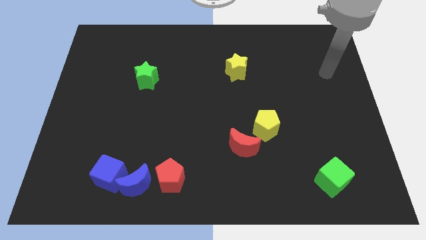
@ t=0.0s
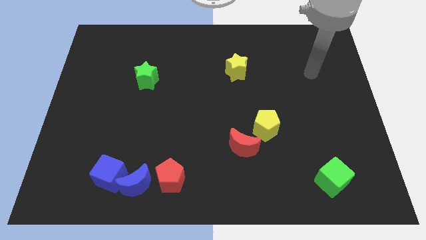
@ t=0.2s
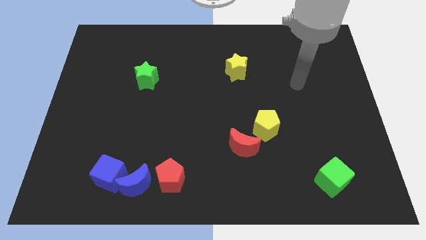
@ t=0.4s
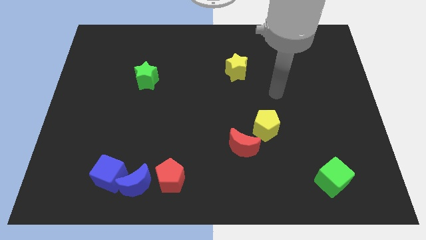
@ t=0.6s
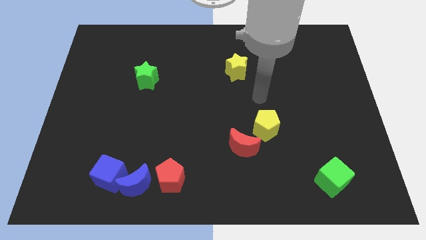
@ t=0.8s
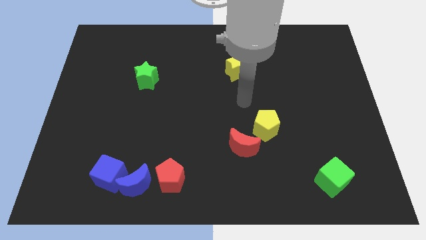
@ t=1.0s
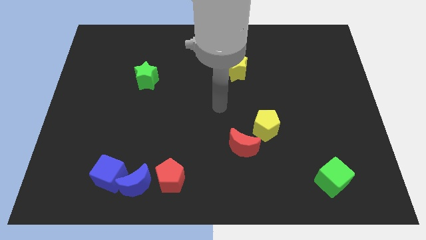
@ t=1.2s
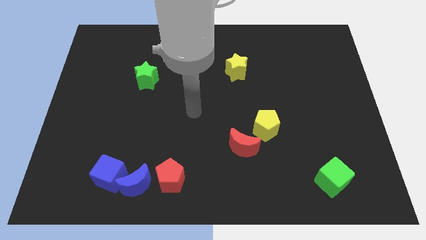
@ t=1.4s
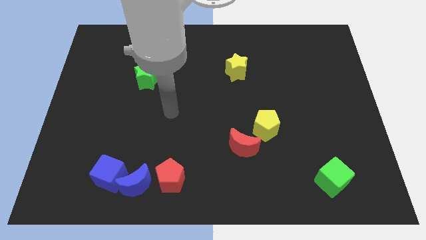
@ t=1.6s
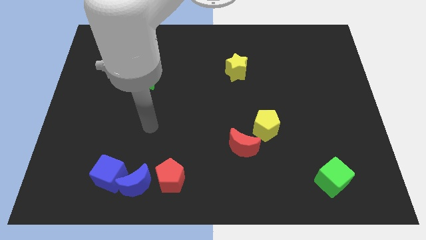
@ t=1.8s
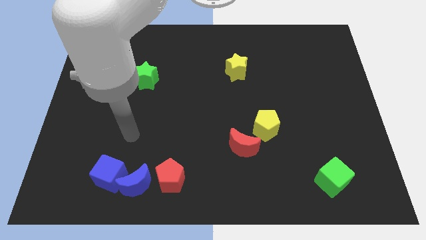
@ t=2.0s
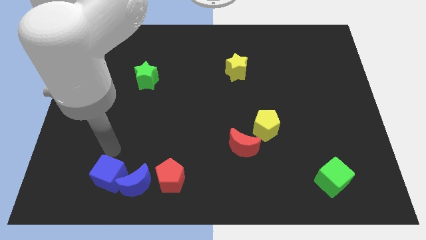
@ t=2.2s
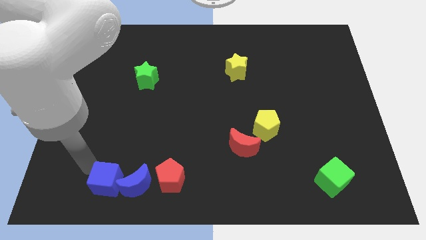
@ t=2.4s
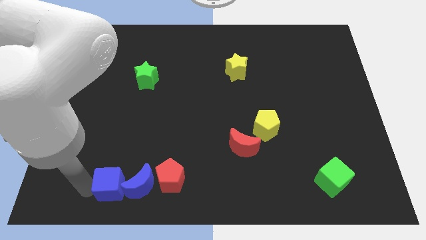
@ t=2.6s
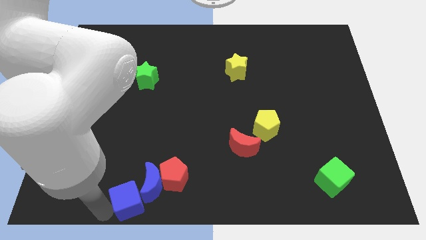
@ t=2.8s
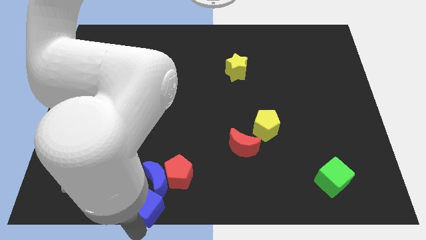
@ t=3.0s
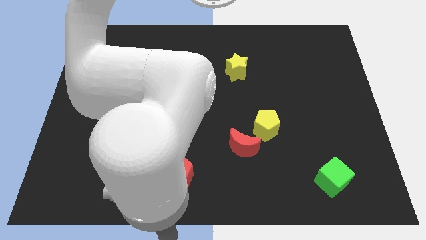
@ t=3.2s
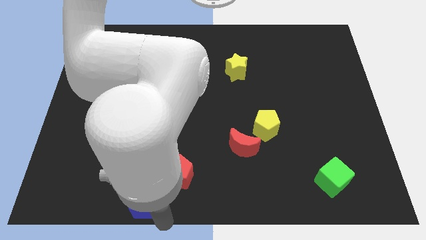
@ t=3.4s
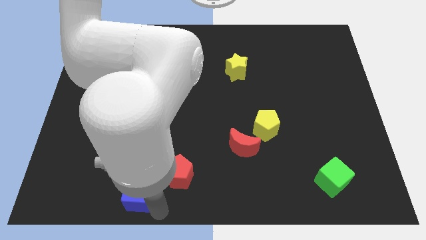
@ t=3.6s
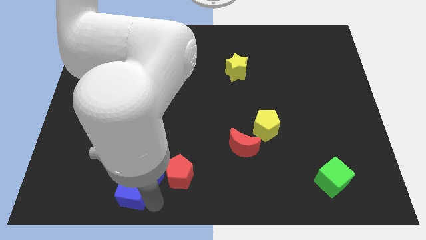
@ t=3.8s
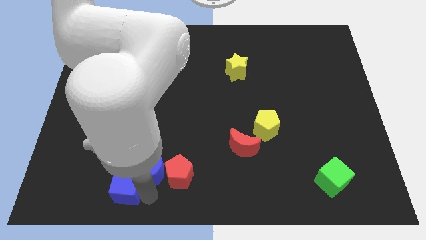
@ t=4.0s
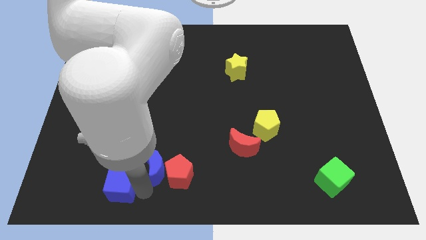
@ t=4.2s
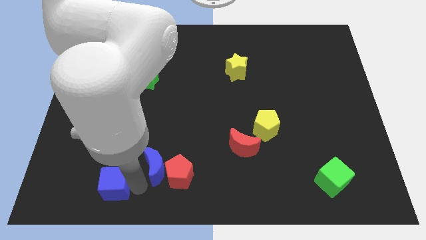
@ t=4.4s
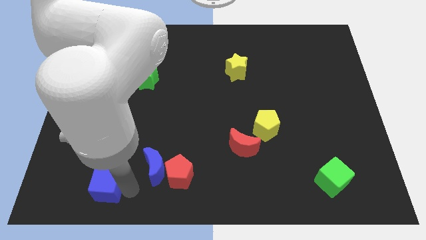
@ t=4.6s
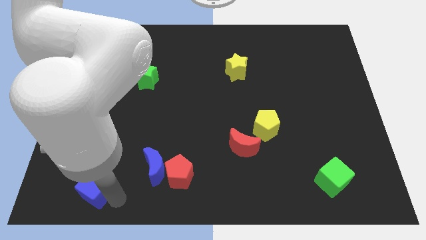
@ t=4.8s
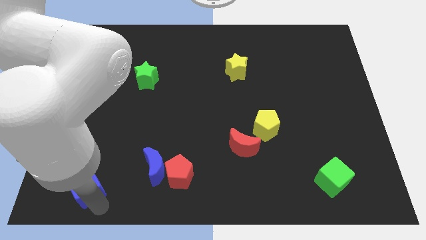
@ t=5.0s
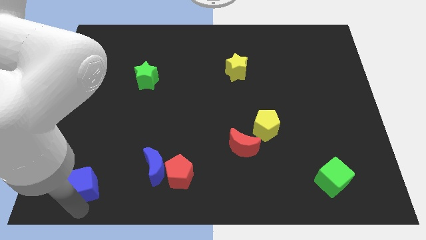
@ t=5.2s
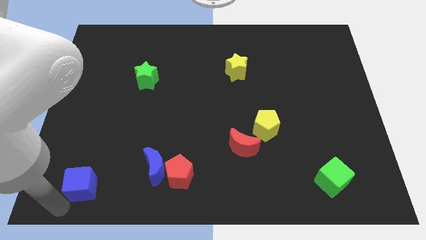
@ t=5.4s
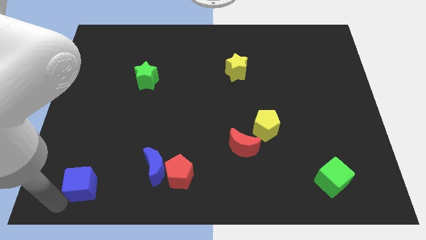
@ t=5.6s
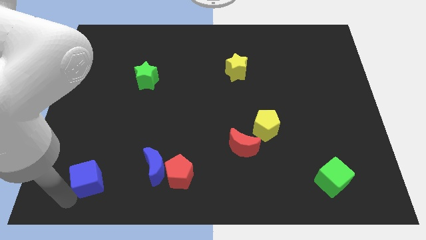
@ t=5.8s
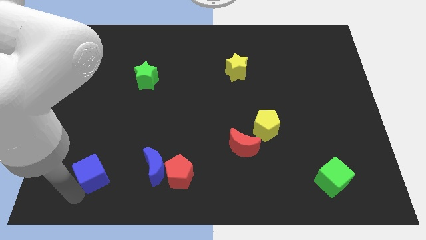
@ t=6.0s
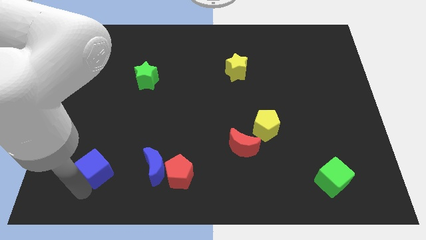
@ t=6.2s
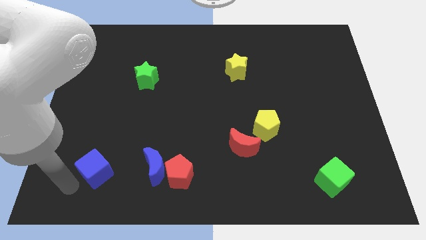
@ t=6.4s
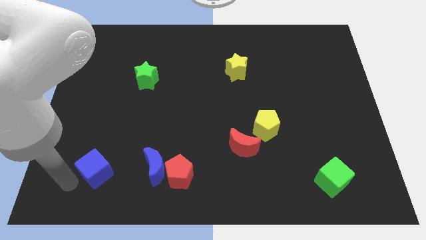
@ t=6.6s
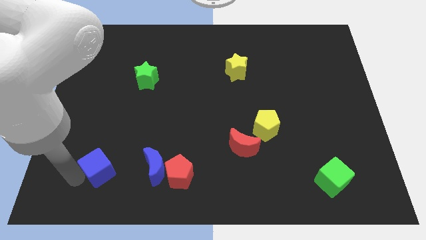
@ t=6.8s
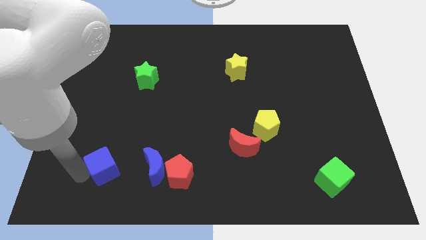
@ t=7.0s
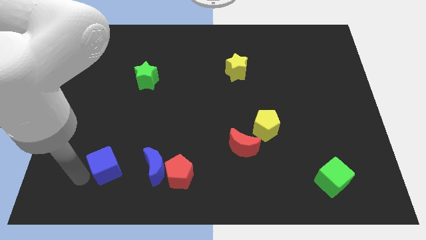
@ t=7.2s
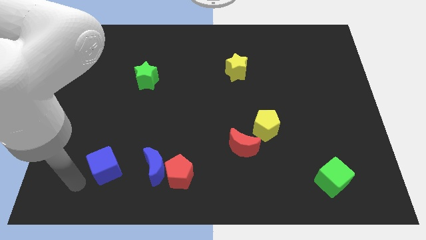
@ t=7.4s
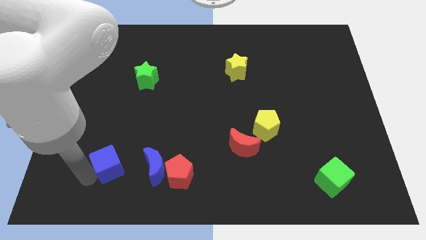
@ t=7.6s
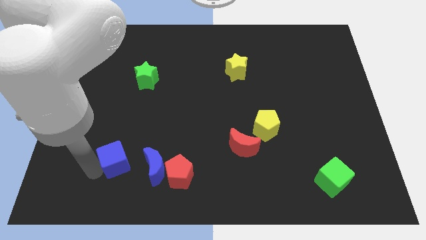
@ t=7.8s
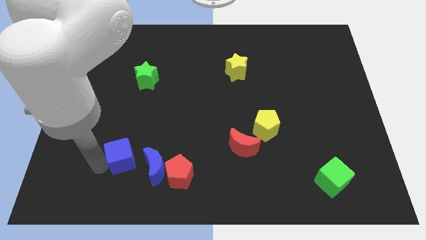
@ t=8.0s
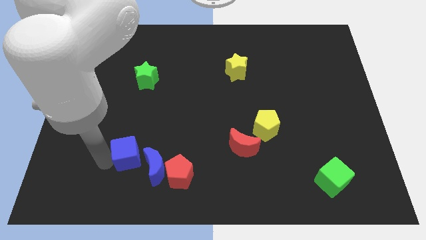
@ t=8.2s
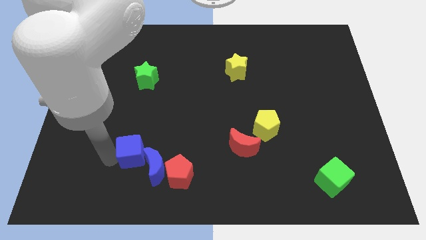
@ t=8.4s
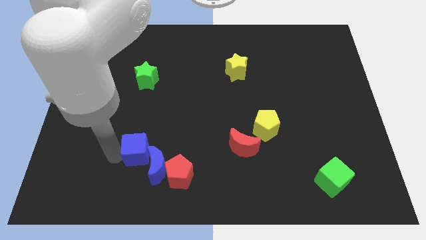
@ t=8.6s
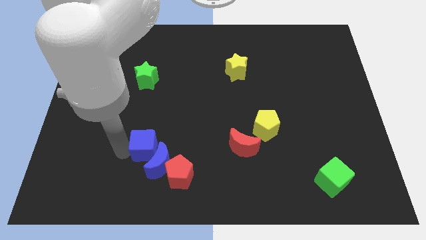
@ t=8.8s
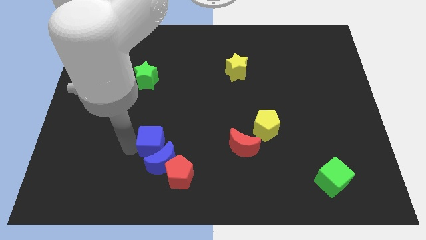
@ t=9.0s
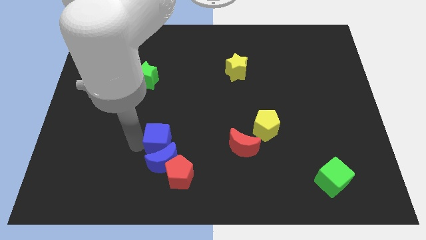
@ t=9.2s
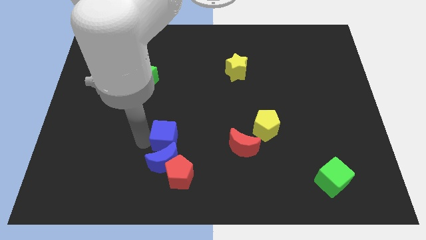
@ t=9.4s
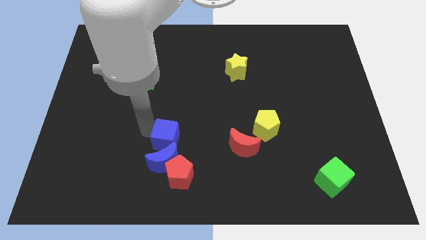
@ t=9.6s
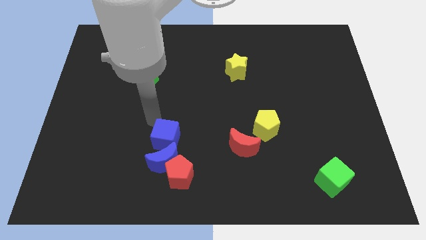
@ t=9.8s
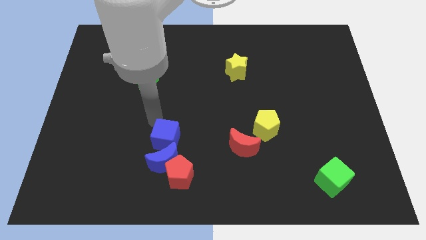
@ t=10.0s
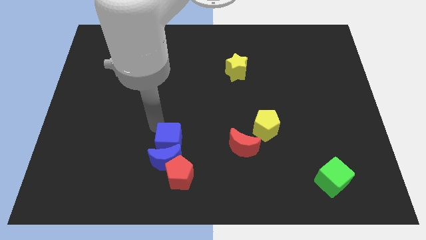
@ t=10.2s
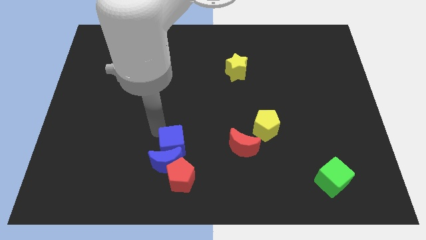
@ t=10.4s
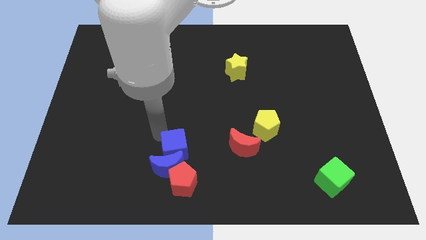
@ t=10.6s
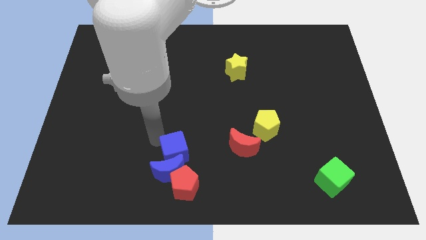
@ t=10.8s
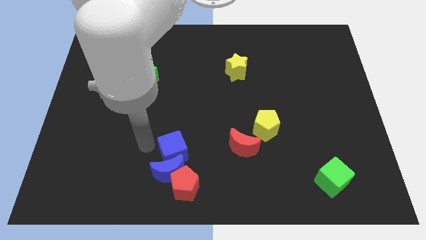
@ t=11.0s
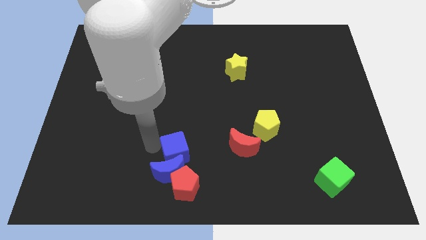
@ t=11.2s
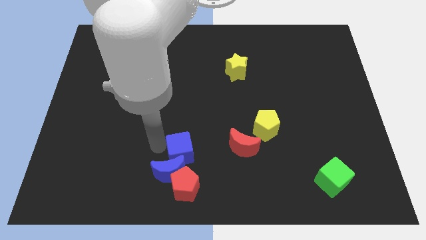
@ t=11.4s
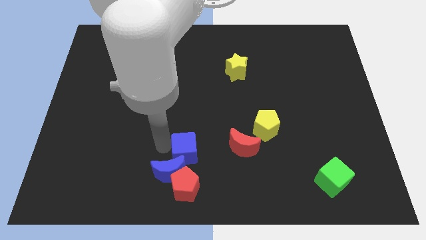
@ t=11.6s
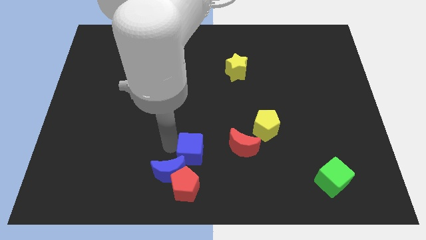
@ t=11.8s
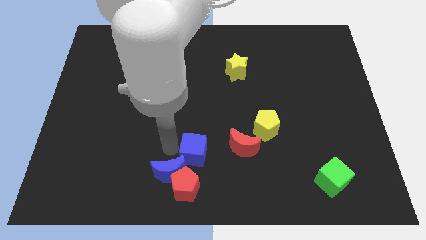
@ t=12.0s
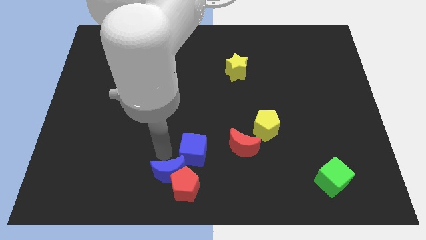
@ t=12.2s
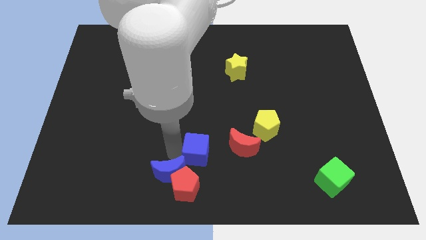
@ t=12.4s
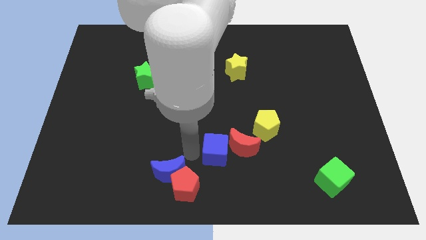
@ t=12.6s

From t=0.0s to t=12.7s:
move the blue cube to the red moon

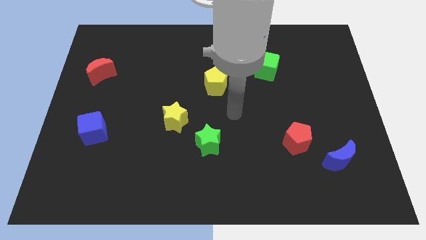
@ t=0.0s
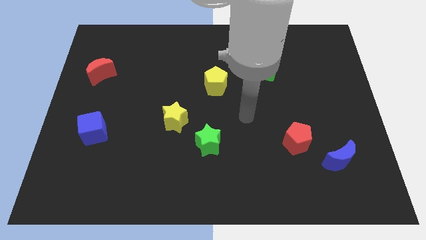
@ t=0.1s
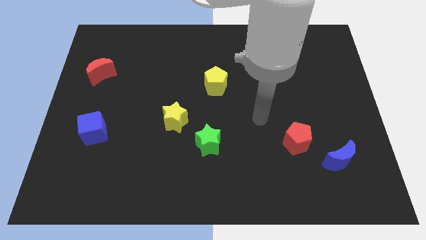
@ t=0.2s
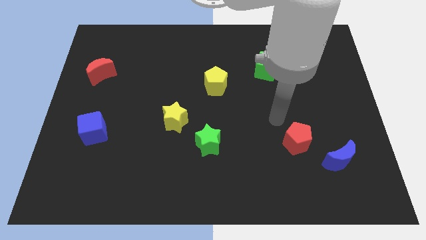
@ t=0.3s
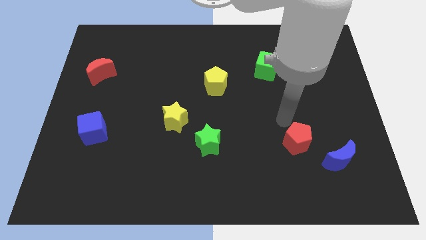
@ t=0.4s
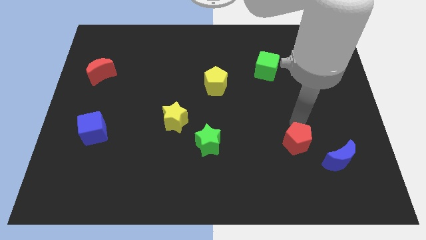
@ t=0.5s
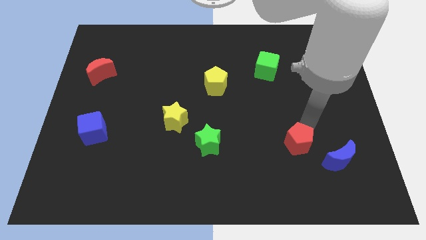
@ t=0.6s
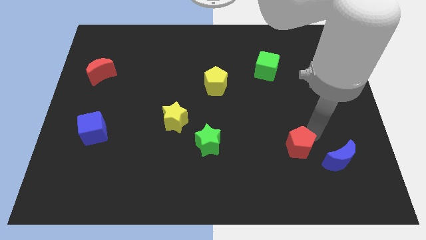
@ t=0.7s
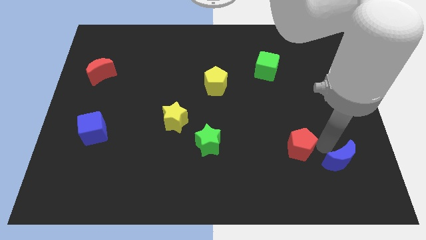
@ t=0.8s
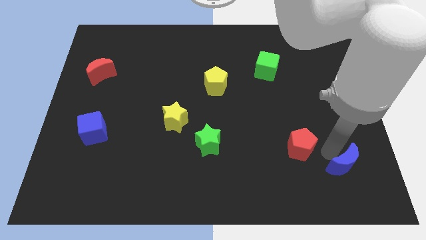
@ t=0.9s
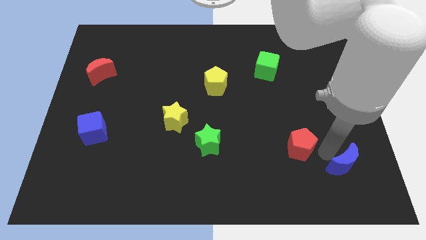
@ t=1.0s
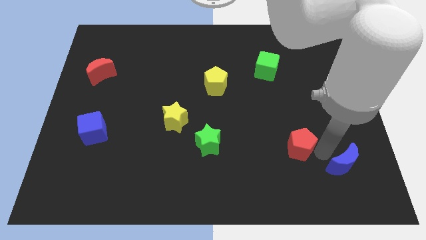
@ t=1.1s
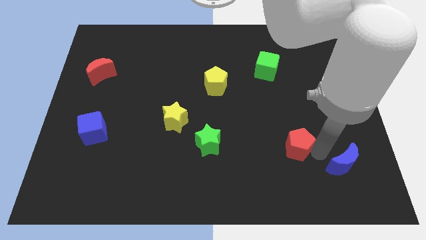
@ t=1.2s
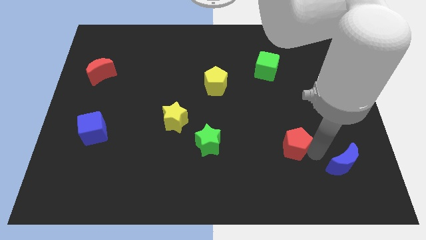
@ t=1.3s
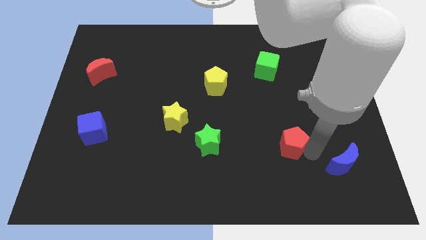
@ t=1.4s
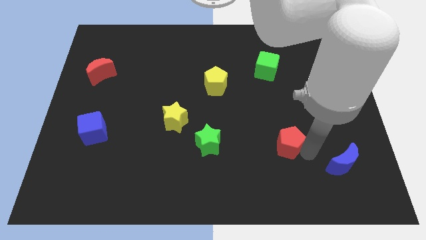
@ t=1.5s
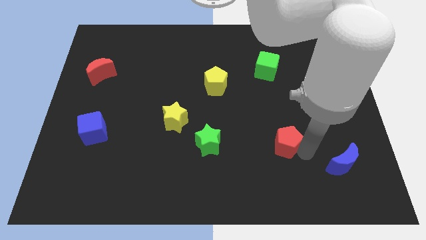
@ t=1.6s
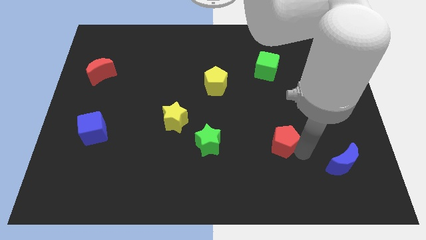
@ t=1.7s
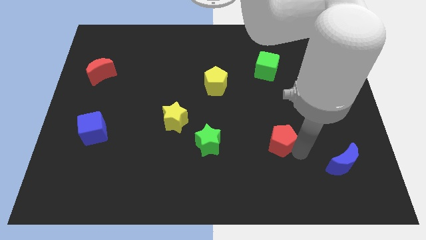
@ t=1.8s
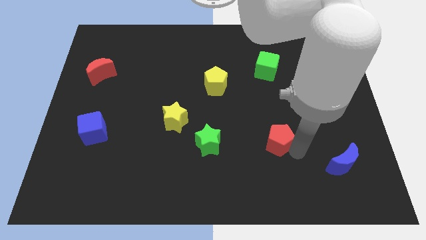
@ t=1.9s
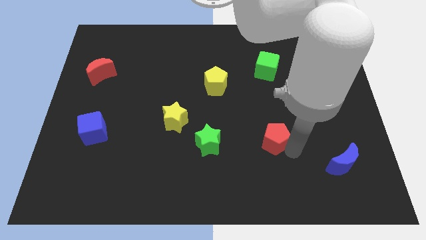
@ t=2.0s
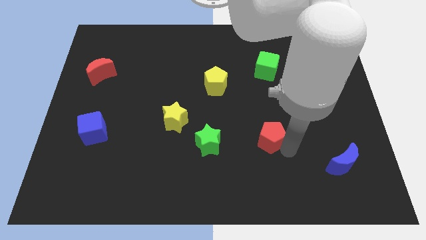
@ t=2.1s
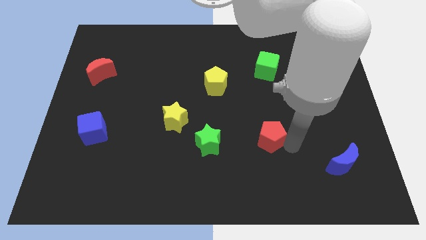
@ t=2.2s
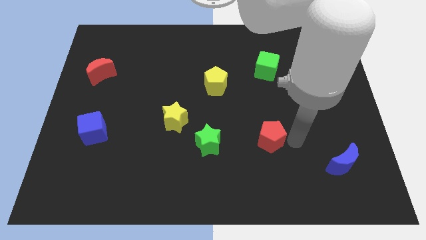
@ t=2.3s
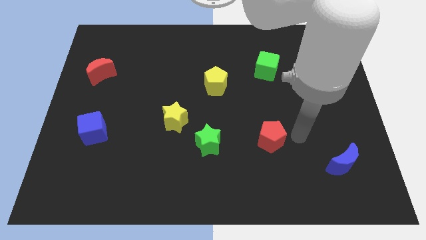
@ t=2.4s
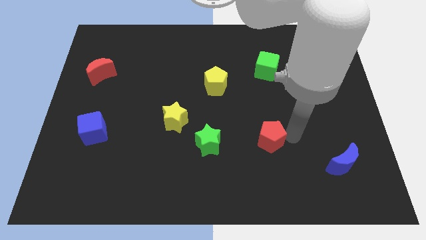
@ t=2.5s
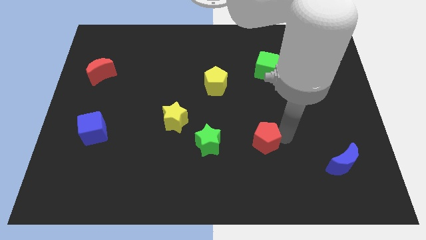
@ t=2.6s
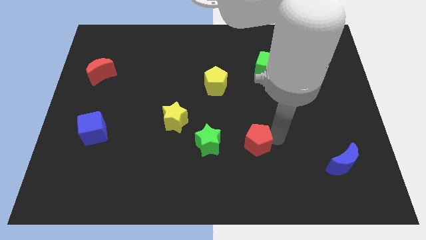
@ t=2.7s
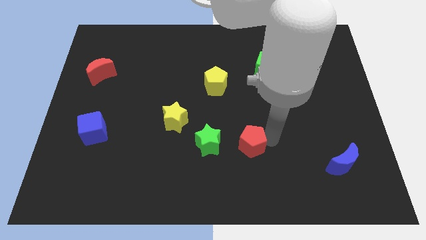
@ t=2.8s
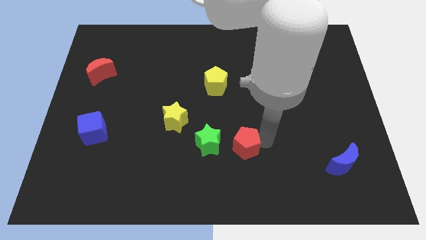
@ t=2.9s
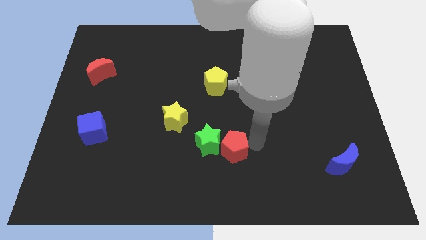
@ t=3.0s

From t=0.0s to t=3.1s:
put the red pentagon towards the green star
